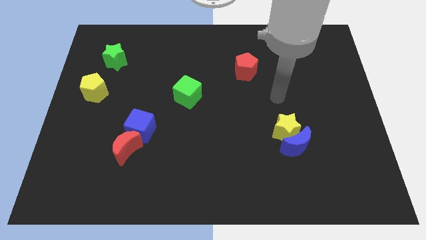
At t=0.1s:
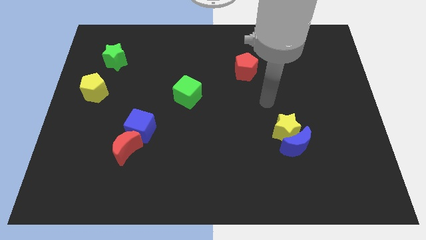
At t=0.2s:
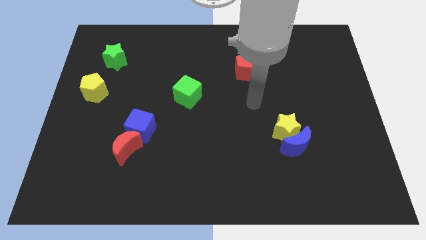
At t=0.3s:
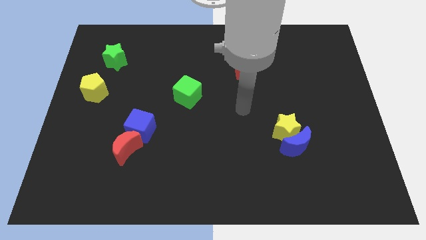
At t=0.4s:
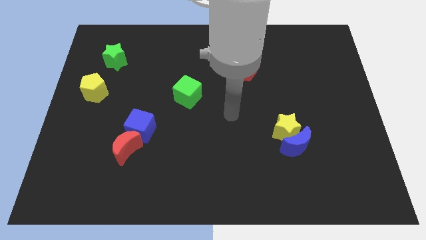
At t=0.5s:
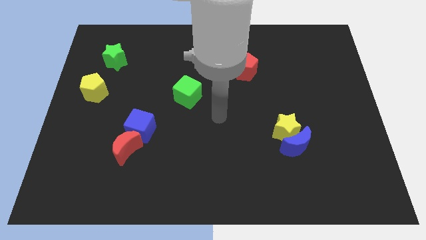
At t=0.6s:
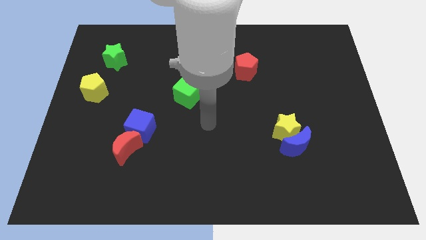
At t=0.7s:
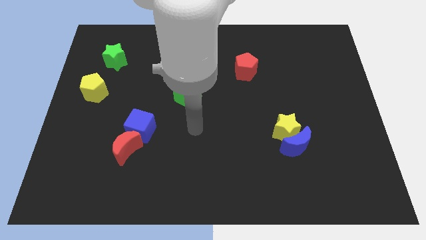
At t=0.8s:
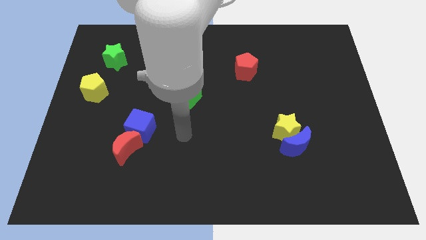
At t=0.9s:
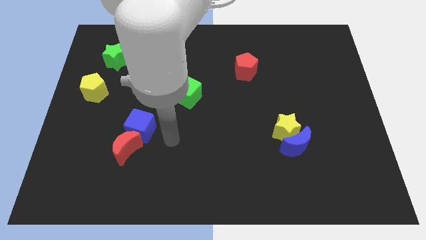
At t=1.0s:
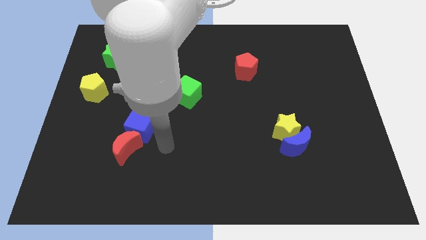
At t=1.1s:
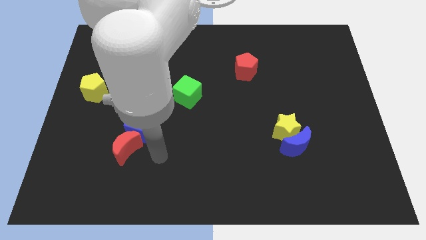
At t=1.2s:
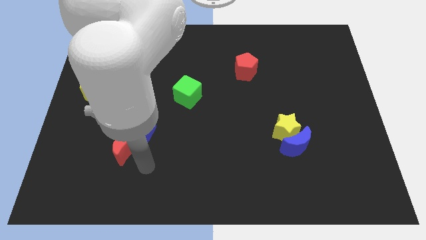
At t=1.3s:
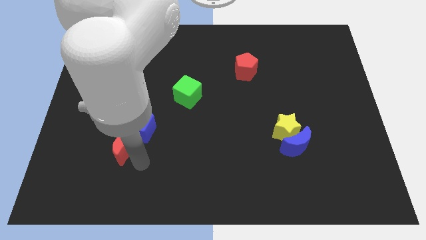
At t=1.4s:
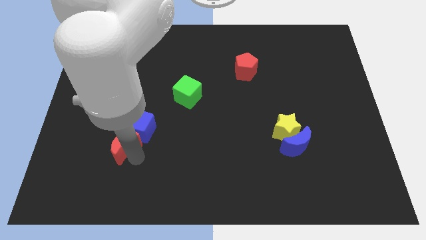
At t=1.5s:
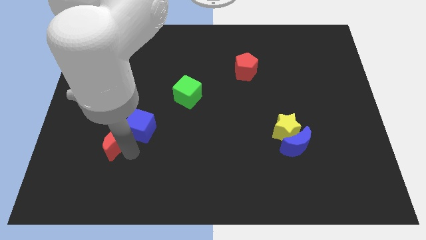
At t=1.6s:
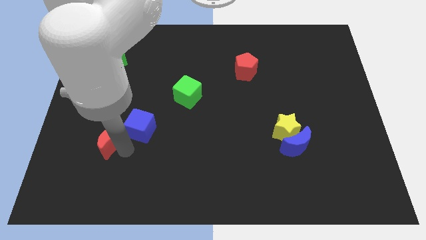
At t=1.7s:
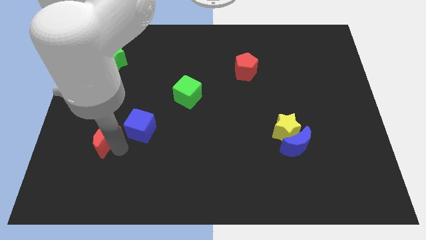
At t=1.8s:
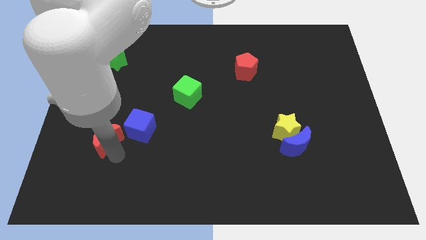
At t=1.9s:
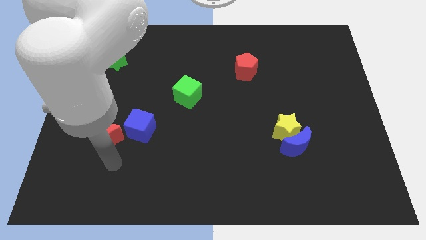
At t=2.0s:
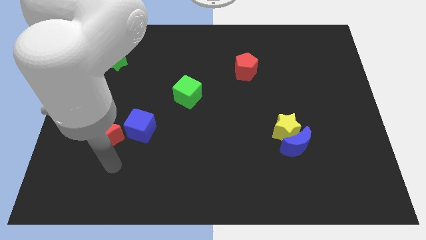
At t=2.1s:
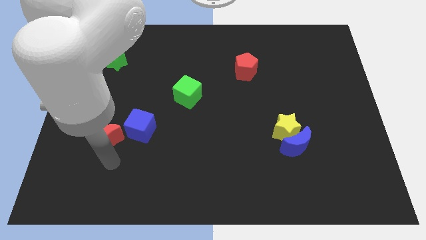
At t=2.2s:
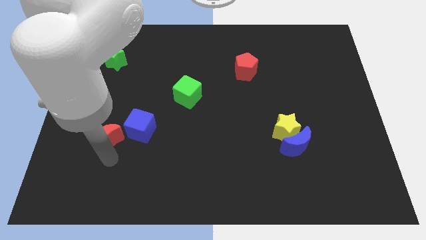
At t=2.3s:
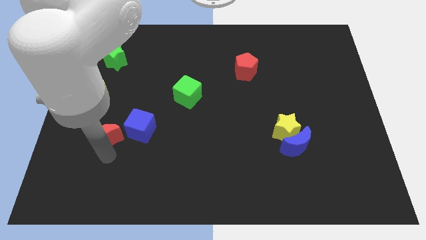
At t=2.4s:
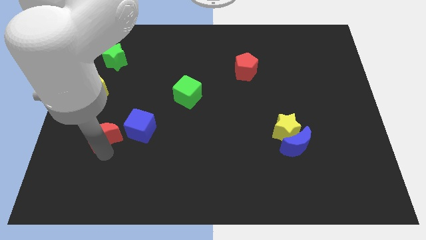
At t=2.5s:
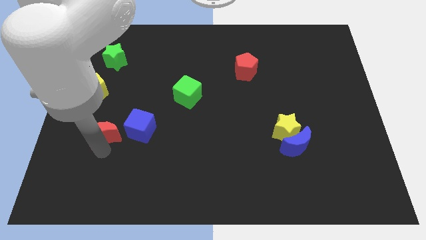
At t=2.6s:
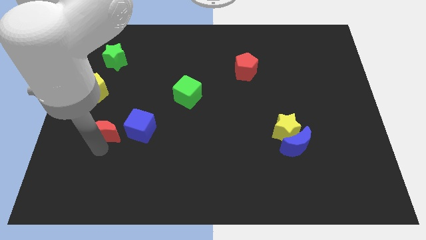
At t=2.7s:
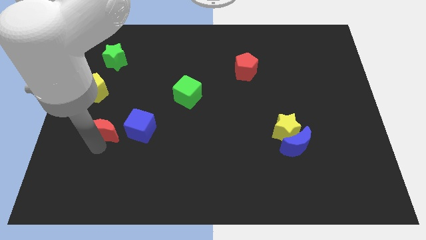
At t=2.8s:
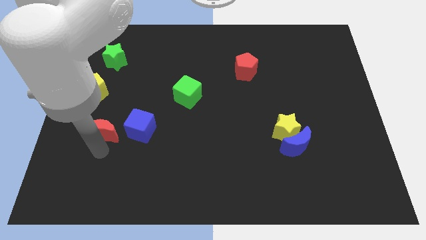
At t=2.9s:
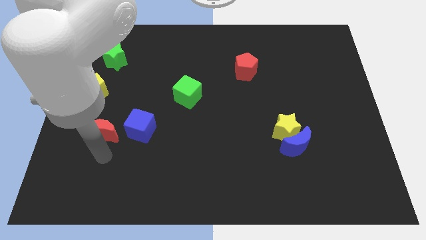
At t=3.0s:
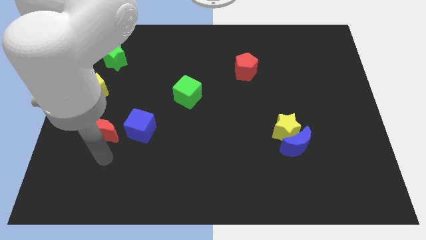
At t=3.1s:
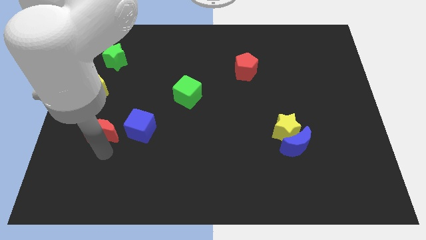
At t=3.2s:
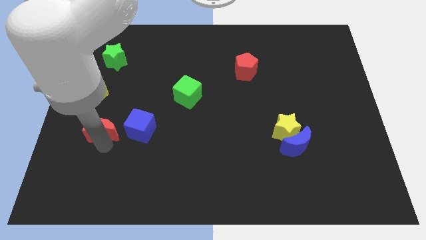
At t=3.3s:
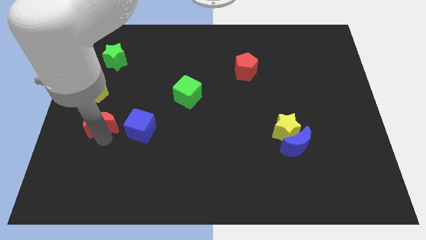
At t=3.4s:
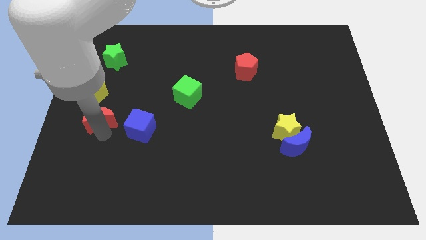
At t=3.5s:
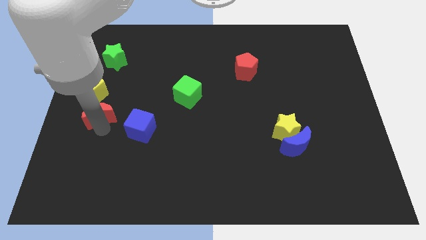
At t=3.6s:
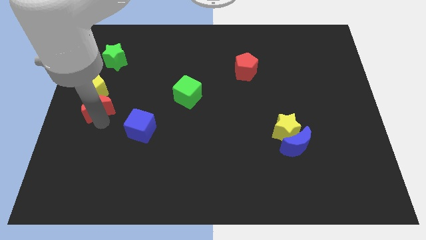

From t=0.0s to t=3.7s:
move the red moon to the yellow pentagon

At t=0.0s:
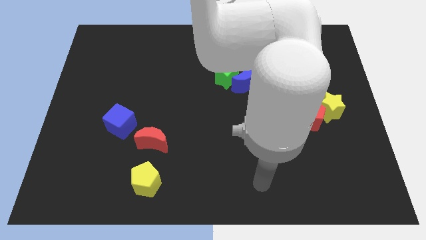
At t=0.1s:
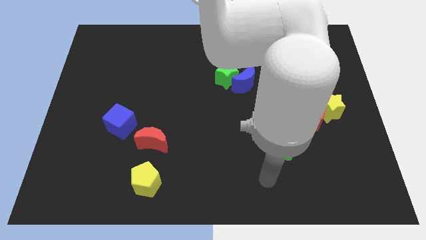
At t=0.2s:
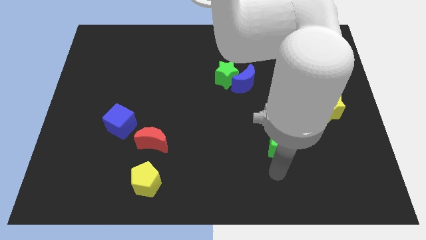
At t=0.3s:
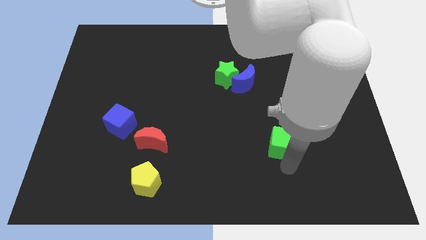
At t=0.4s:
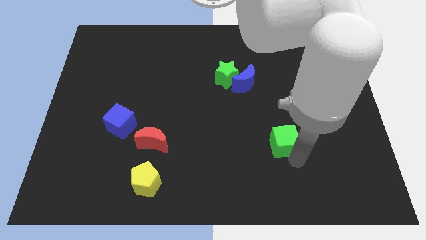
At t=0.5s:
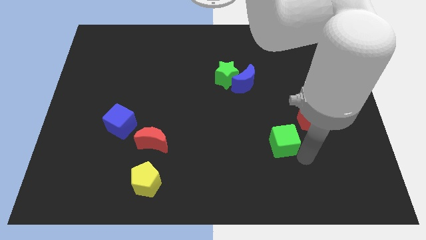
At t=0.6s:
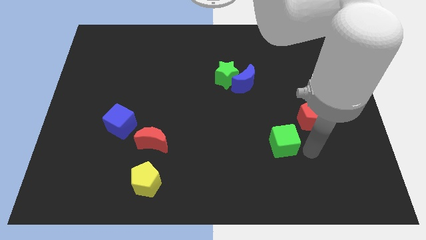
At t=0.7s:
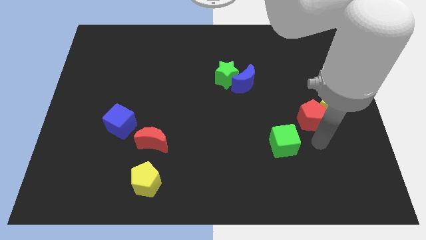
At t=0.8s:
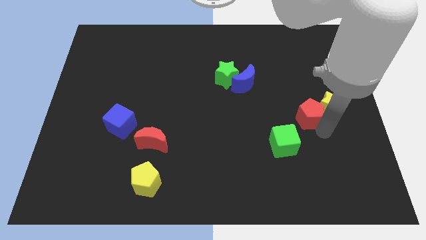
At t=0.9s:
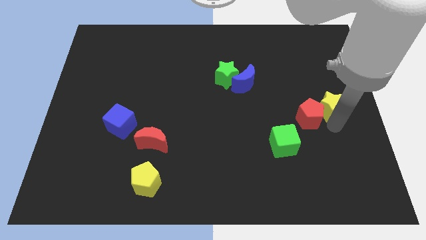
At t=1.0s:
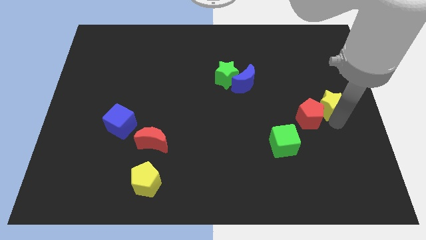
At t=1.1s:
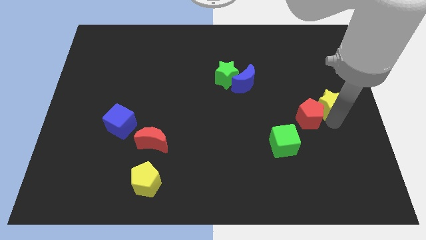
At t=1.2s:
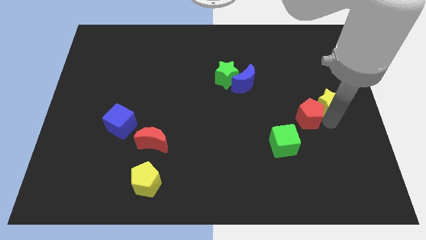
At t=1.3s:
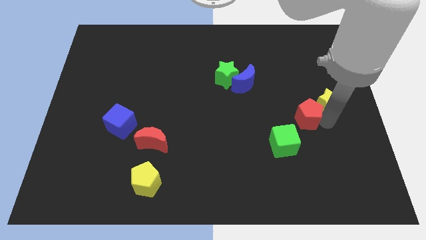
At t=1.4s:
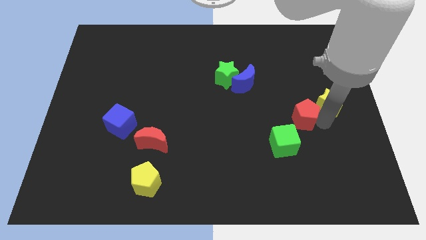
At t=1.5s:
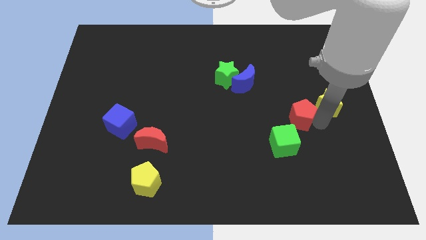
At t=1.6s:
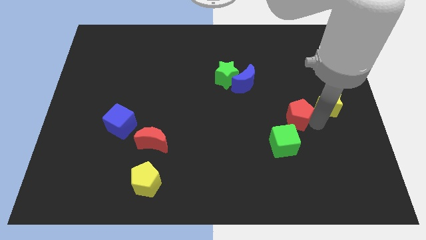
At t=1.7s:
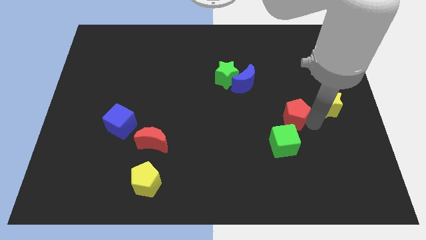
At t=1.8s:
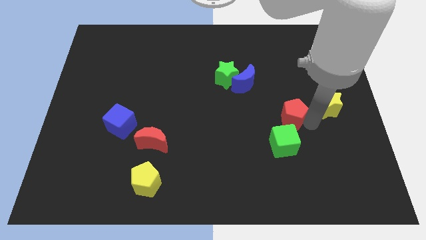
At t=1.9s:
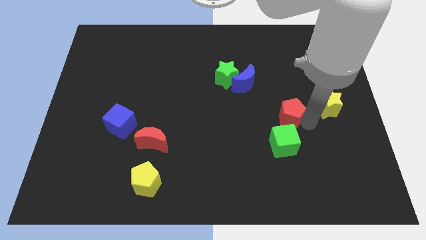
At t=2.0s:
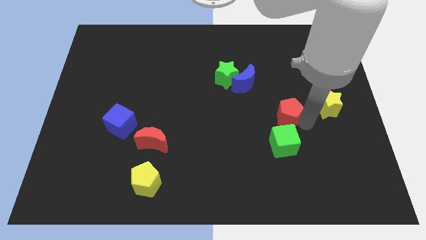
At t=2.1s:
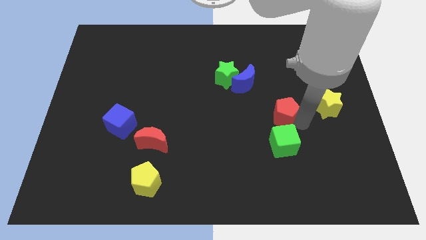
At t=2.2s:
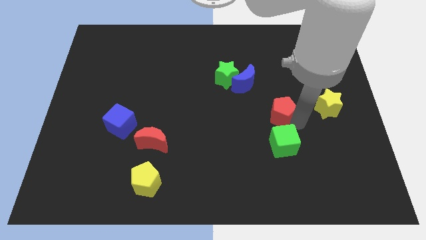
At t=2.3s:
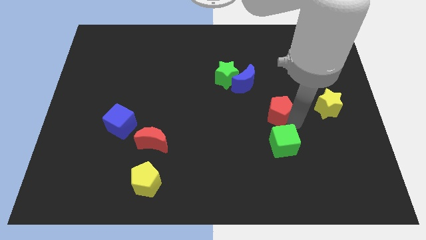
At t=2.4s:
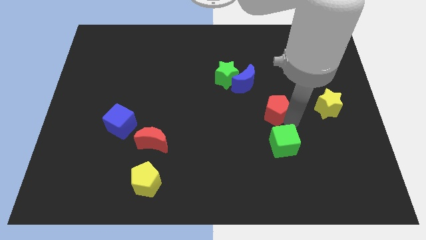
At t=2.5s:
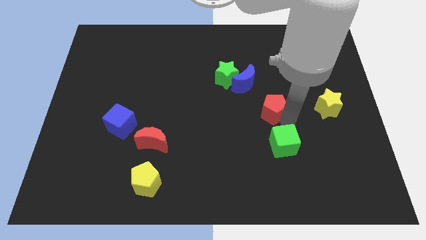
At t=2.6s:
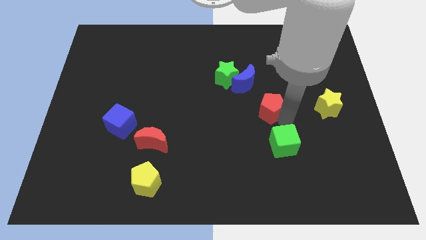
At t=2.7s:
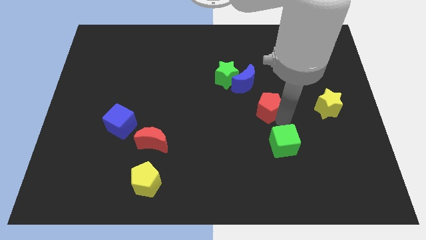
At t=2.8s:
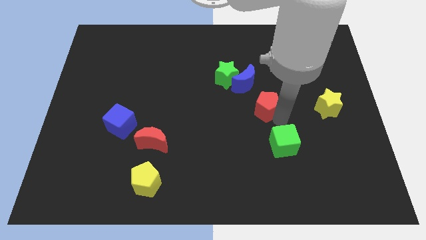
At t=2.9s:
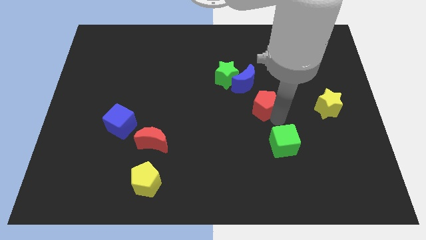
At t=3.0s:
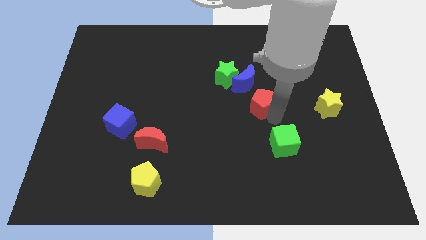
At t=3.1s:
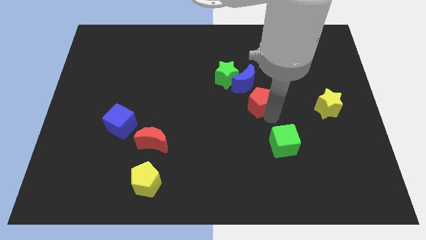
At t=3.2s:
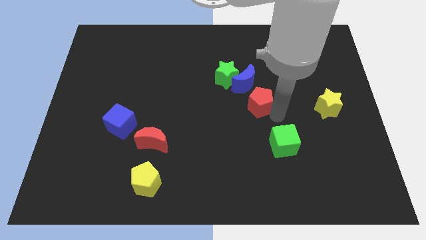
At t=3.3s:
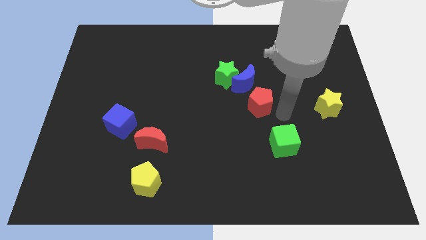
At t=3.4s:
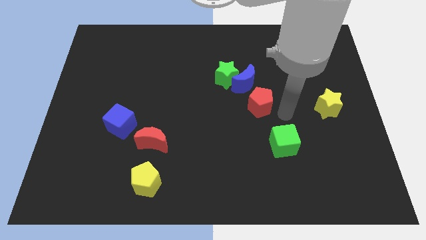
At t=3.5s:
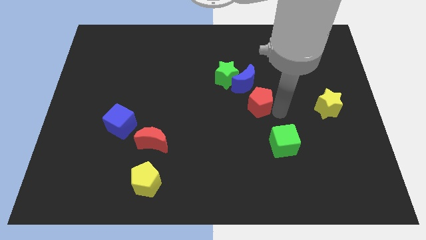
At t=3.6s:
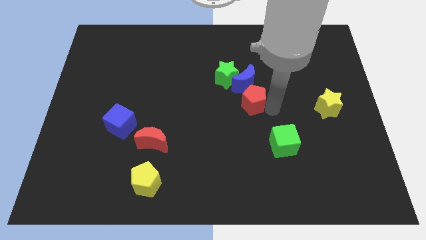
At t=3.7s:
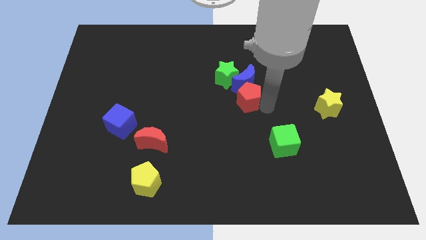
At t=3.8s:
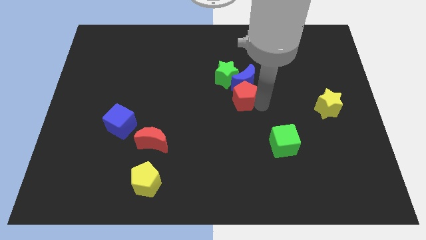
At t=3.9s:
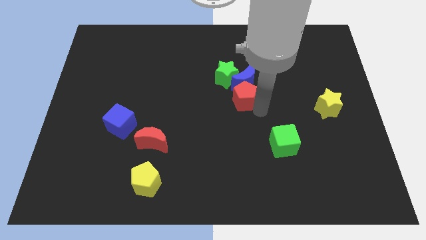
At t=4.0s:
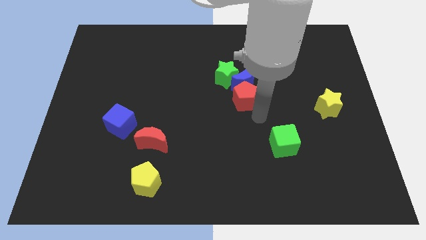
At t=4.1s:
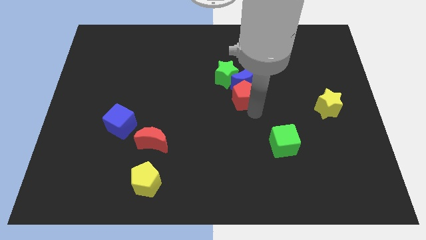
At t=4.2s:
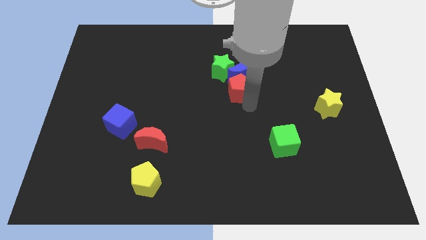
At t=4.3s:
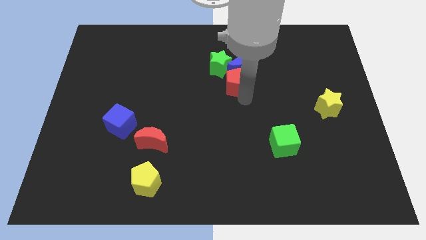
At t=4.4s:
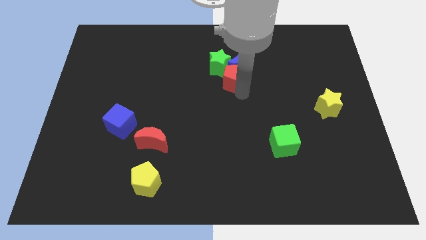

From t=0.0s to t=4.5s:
move the red pentagon close to the green star
